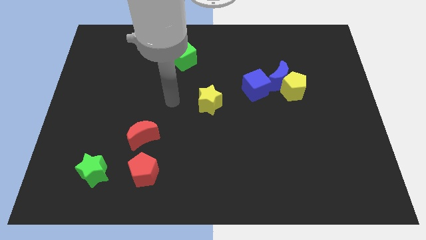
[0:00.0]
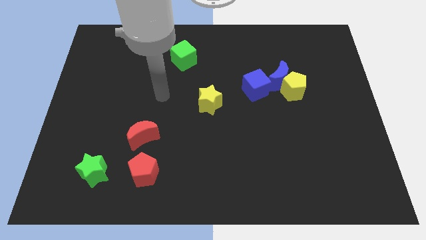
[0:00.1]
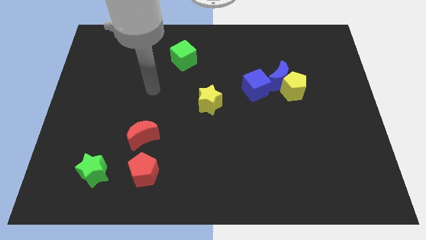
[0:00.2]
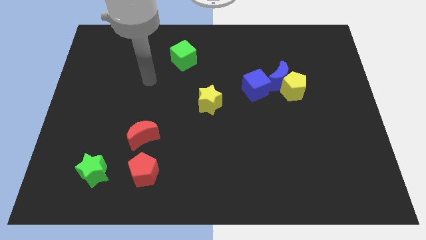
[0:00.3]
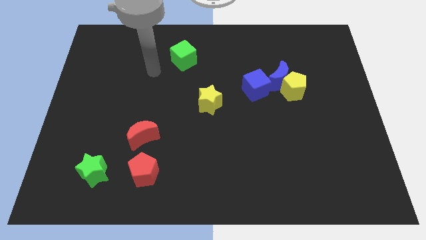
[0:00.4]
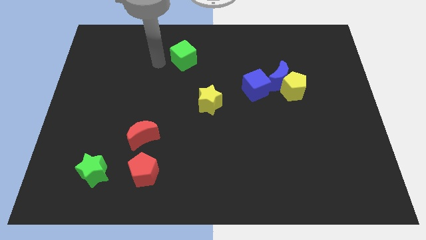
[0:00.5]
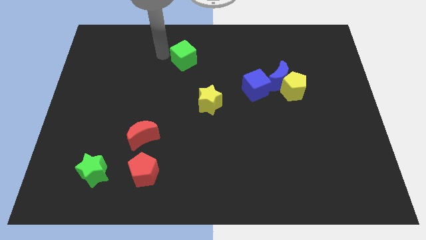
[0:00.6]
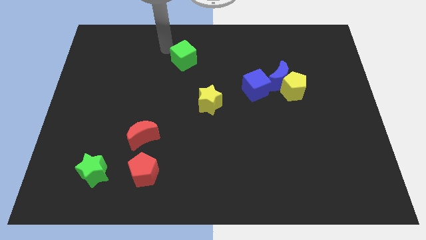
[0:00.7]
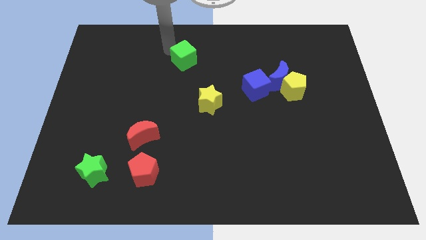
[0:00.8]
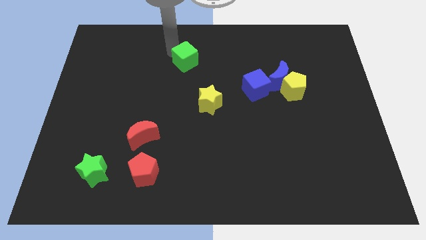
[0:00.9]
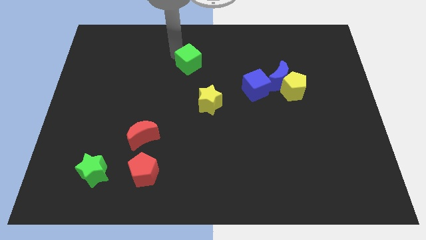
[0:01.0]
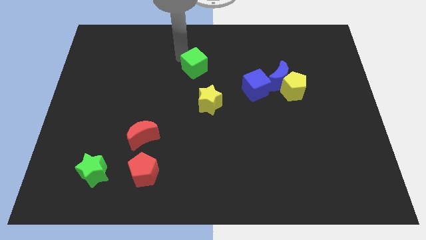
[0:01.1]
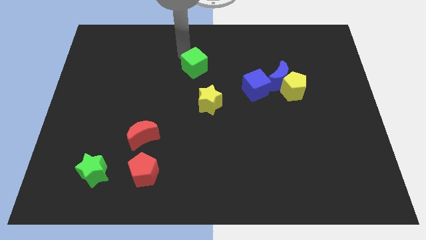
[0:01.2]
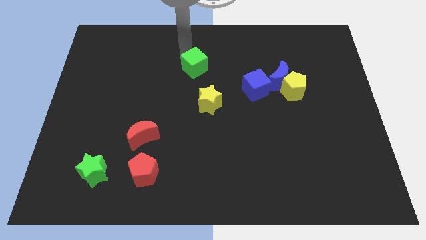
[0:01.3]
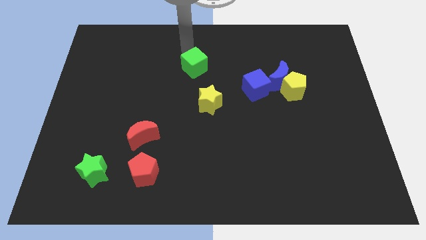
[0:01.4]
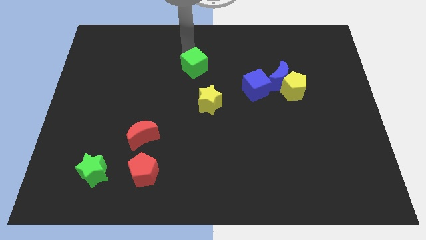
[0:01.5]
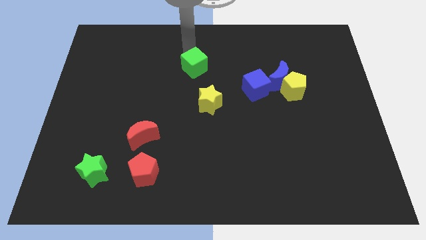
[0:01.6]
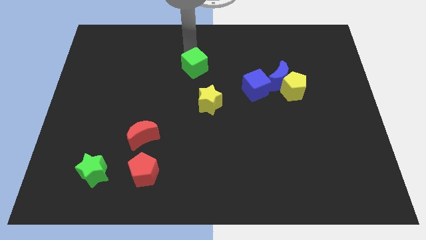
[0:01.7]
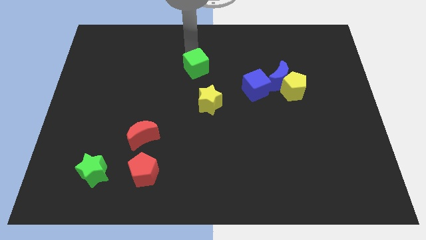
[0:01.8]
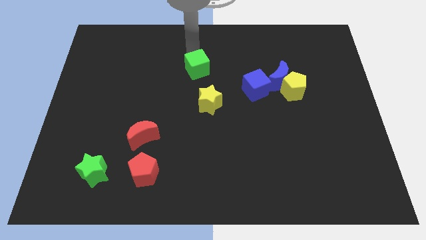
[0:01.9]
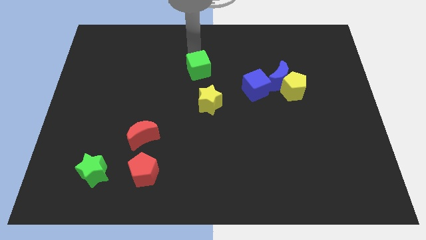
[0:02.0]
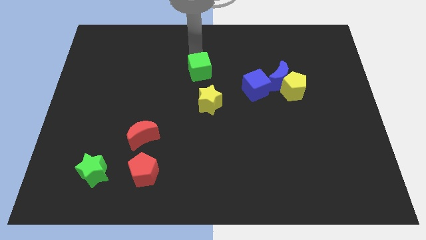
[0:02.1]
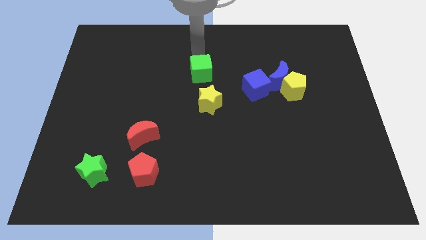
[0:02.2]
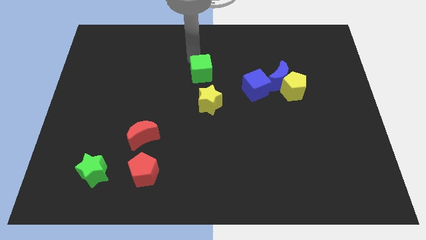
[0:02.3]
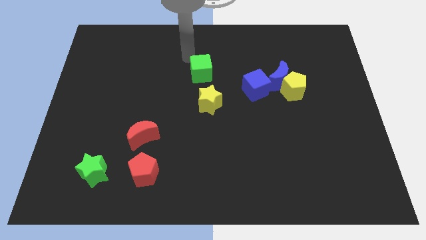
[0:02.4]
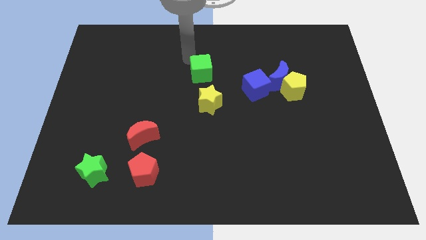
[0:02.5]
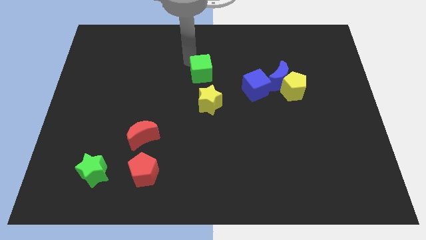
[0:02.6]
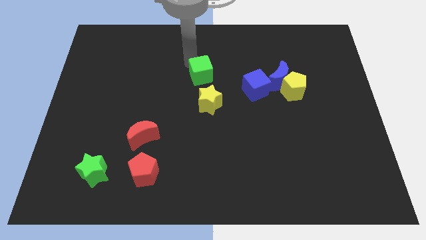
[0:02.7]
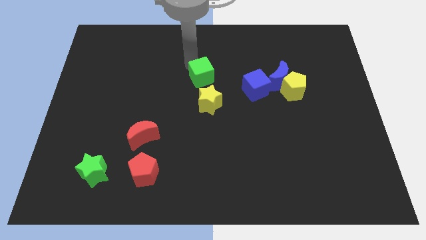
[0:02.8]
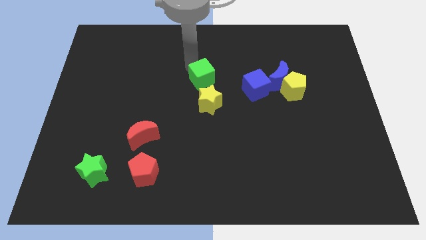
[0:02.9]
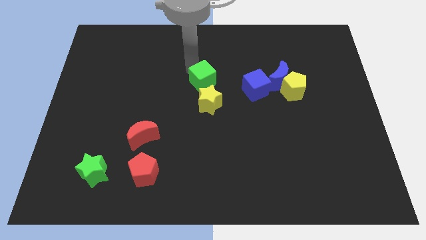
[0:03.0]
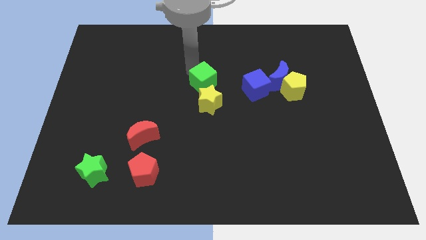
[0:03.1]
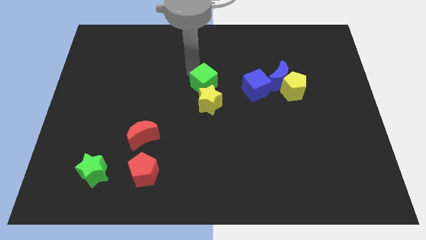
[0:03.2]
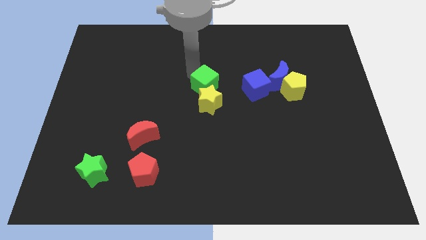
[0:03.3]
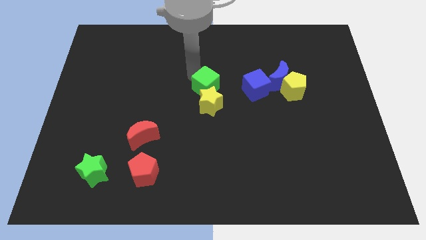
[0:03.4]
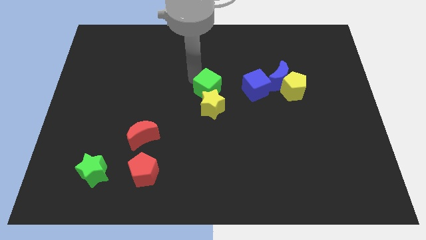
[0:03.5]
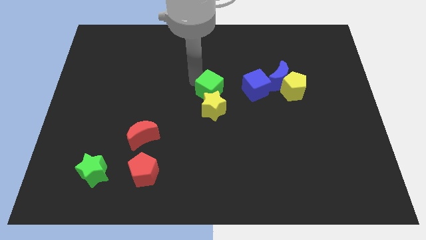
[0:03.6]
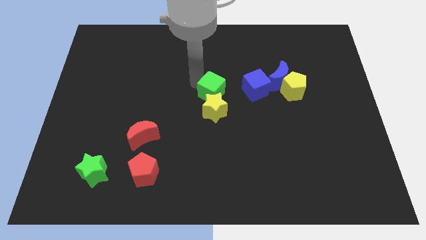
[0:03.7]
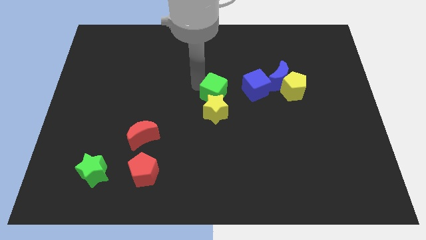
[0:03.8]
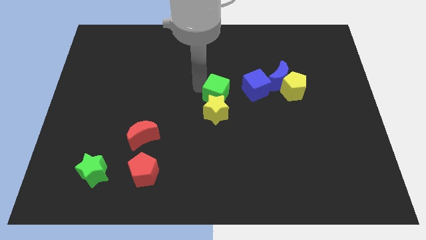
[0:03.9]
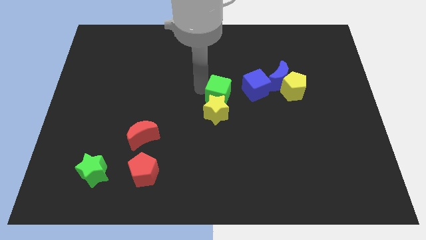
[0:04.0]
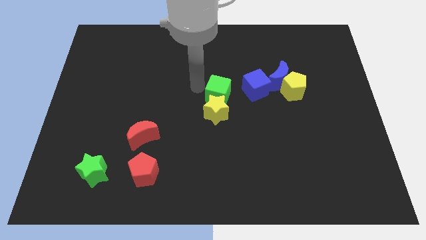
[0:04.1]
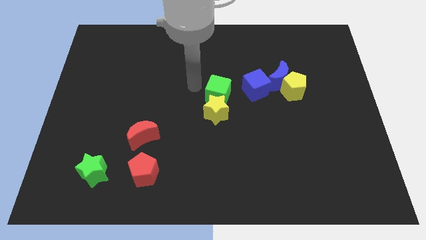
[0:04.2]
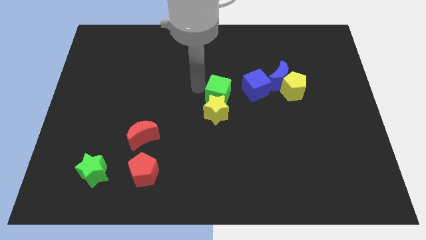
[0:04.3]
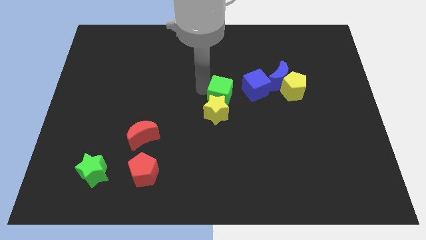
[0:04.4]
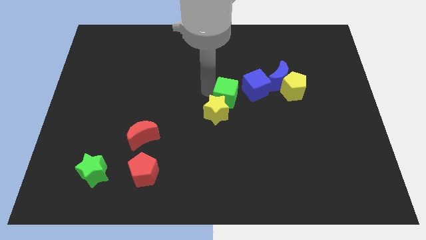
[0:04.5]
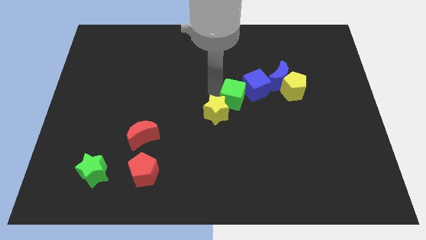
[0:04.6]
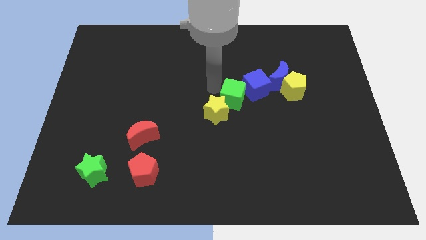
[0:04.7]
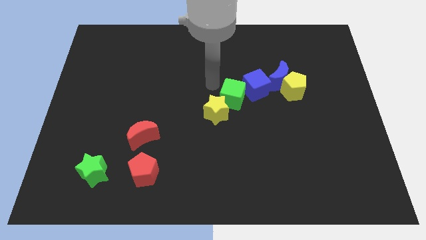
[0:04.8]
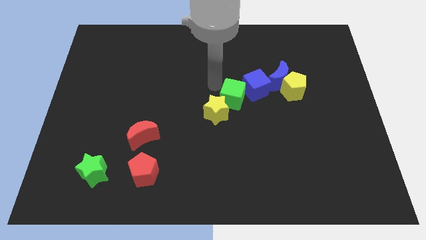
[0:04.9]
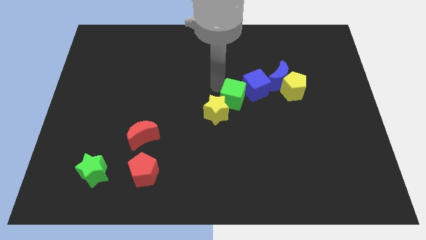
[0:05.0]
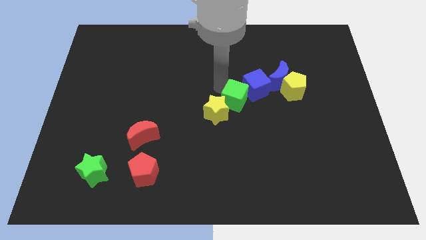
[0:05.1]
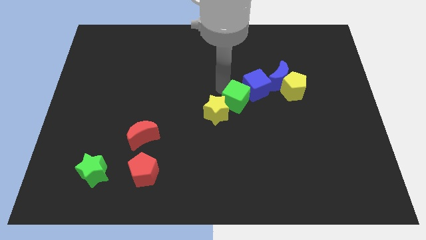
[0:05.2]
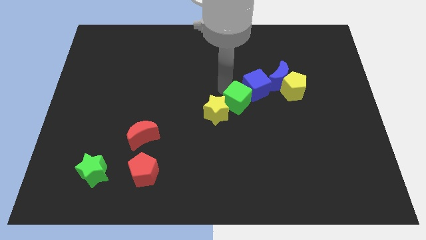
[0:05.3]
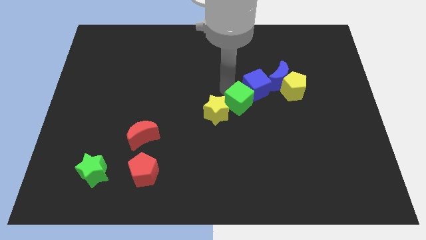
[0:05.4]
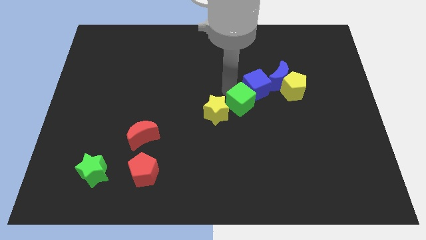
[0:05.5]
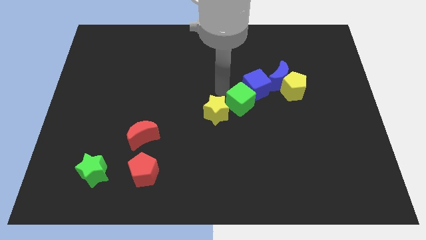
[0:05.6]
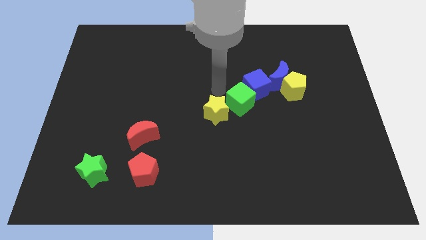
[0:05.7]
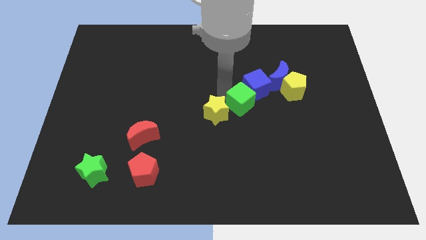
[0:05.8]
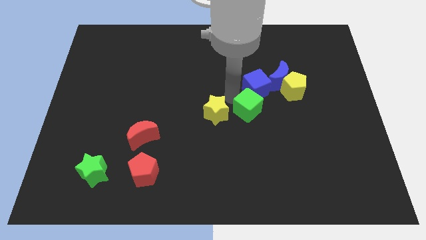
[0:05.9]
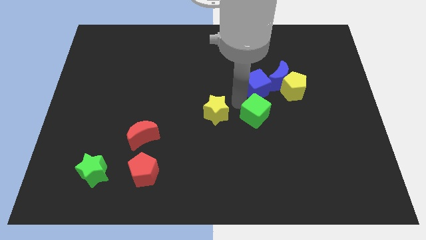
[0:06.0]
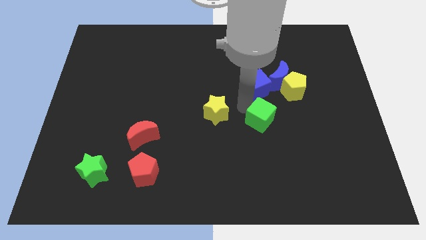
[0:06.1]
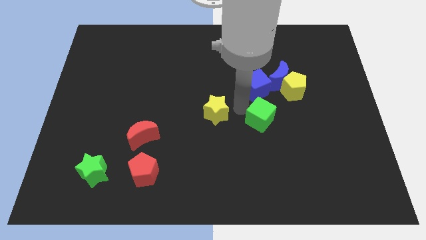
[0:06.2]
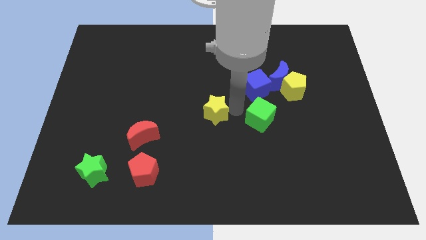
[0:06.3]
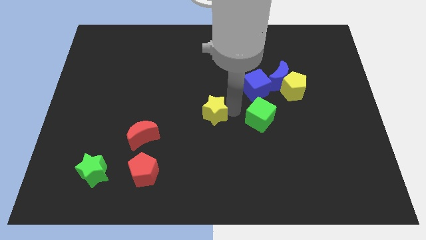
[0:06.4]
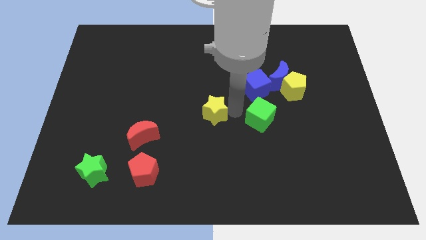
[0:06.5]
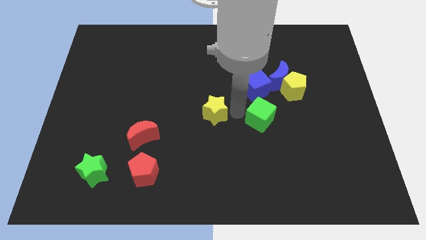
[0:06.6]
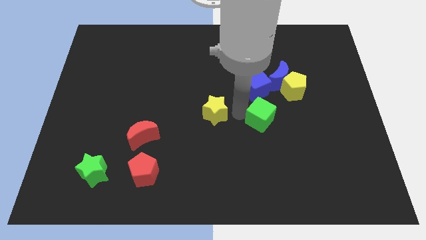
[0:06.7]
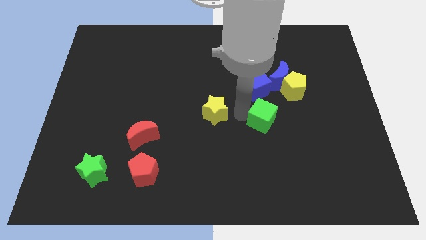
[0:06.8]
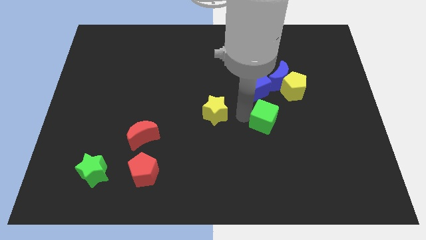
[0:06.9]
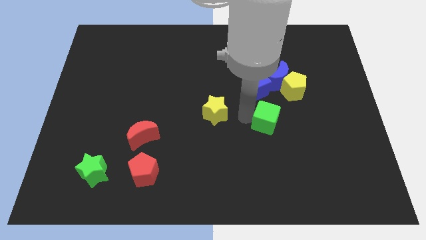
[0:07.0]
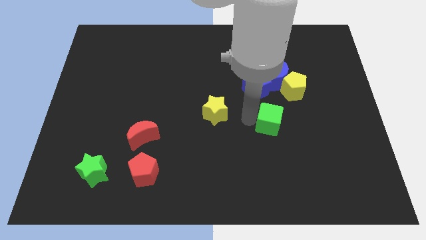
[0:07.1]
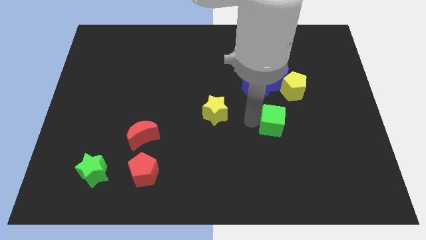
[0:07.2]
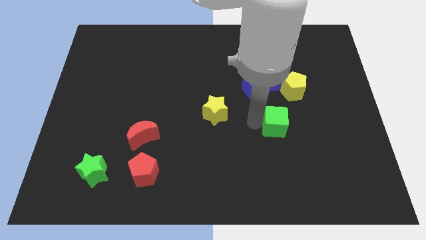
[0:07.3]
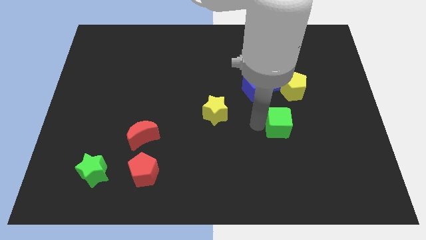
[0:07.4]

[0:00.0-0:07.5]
slide the green cube below the yellow pentagon
